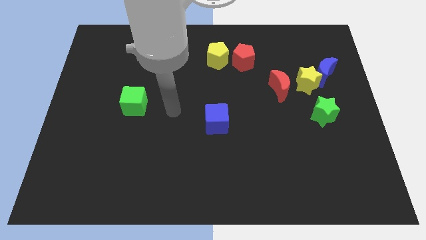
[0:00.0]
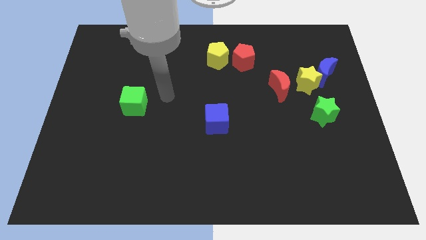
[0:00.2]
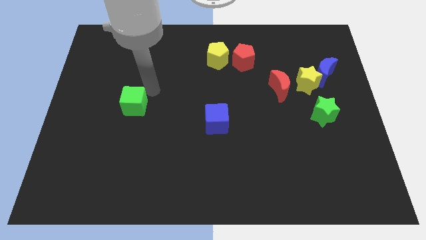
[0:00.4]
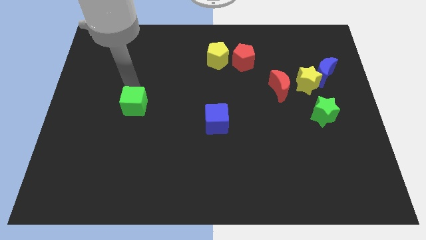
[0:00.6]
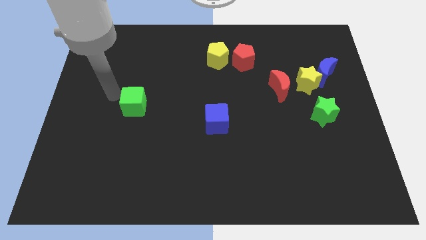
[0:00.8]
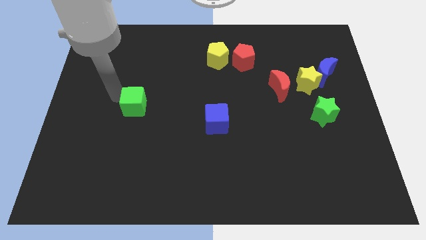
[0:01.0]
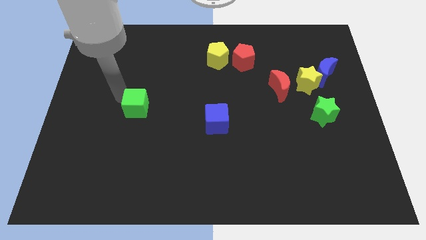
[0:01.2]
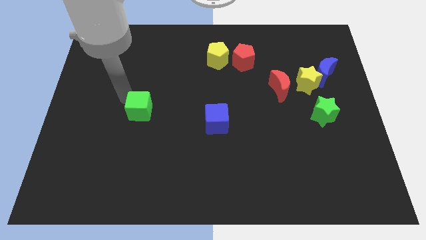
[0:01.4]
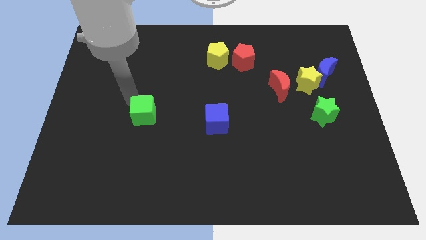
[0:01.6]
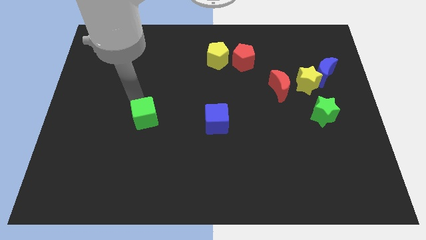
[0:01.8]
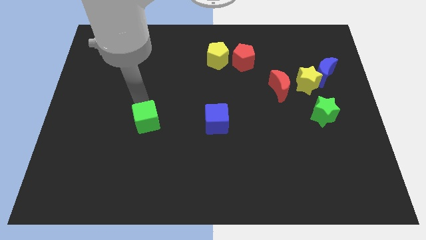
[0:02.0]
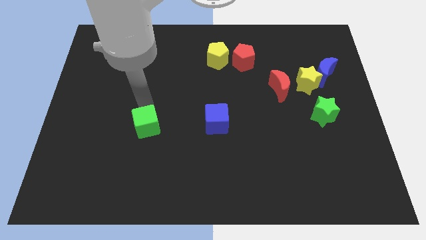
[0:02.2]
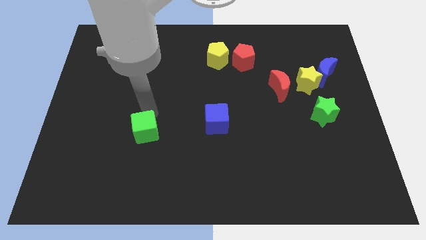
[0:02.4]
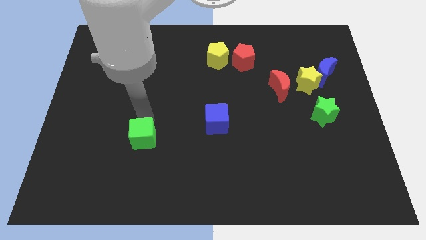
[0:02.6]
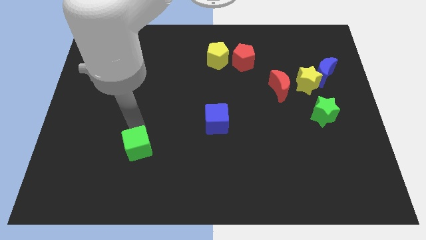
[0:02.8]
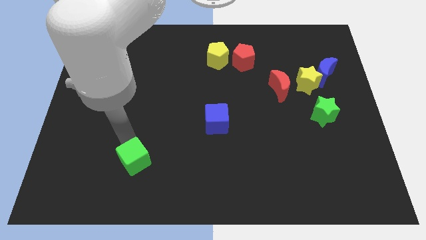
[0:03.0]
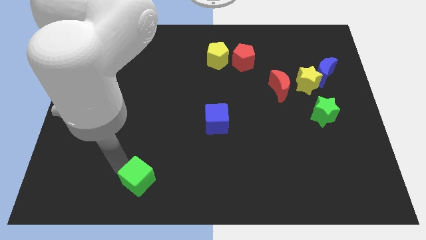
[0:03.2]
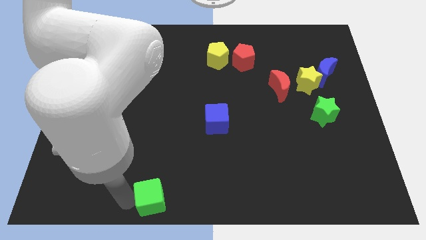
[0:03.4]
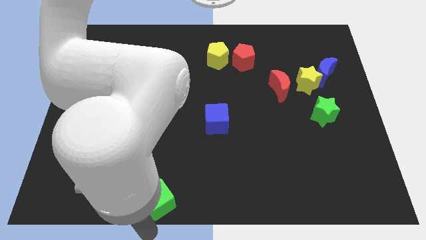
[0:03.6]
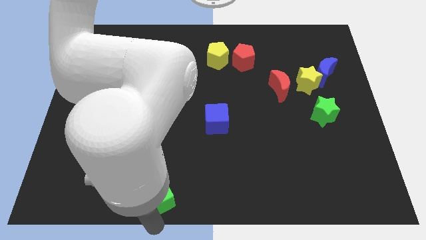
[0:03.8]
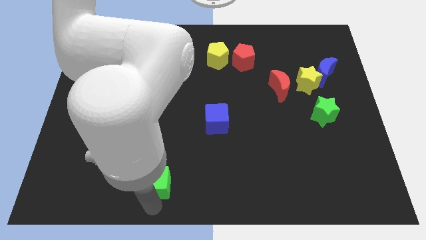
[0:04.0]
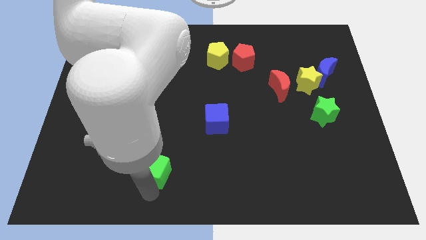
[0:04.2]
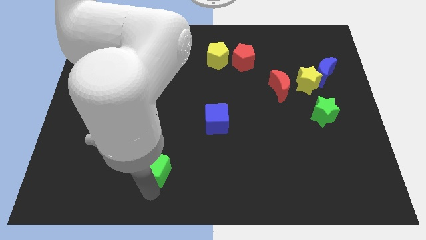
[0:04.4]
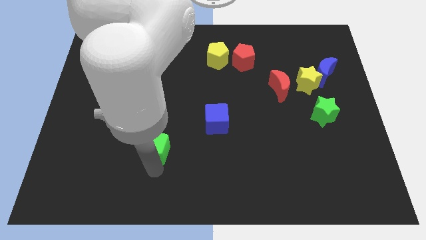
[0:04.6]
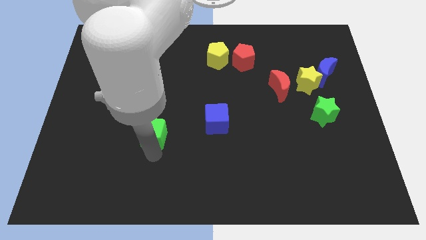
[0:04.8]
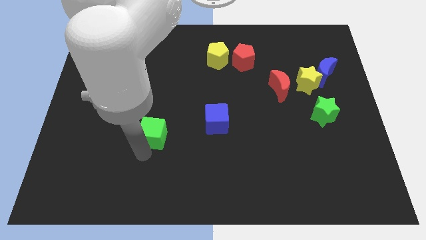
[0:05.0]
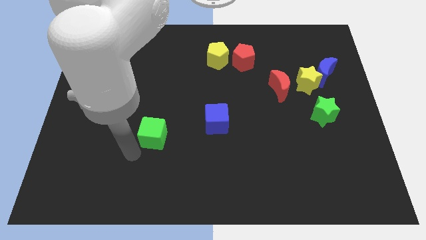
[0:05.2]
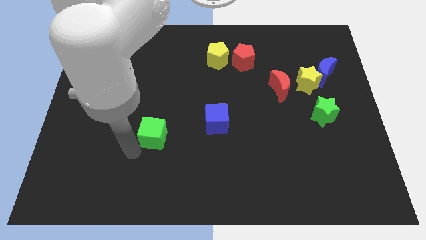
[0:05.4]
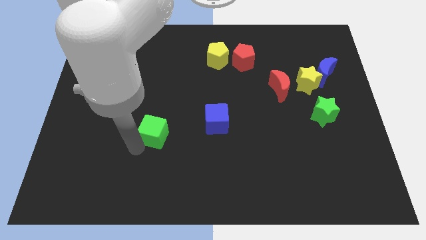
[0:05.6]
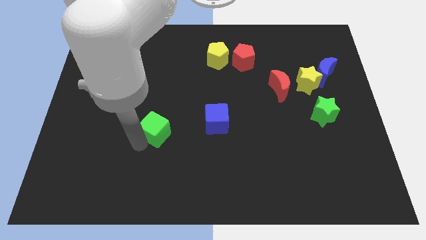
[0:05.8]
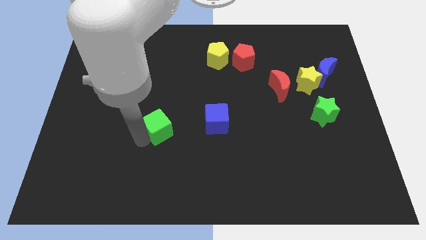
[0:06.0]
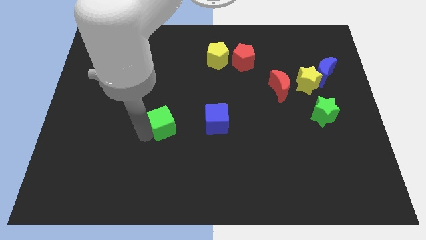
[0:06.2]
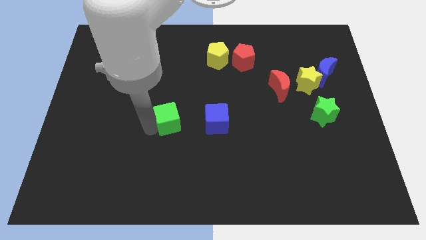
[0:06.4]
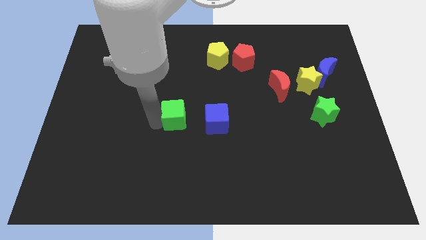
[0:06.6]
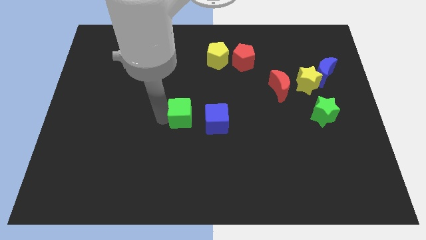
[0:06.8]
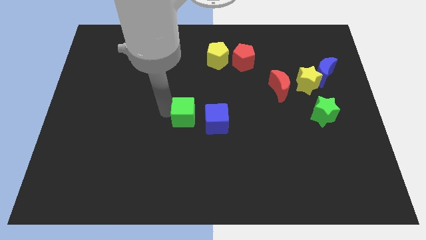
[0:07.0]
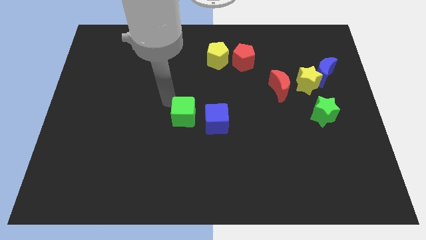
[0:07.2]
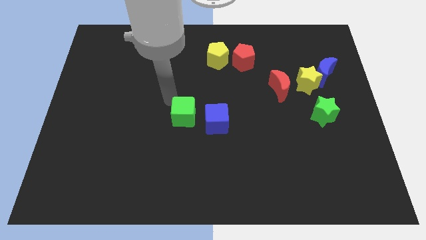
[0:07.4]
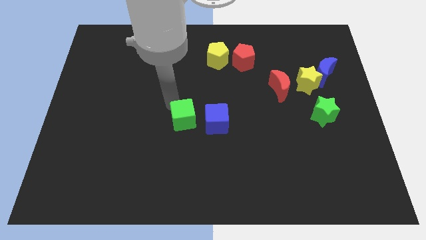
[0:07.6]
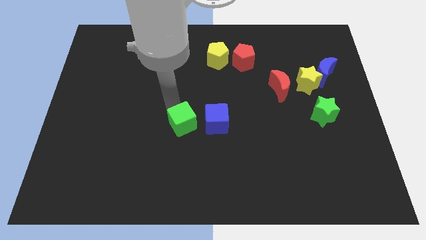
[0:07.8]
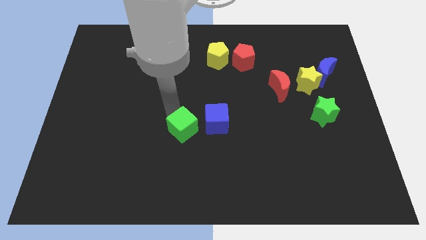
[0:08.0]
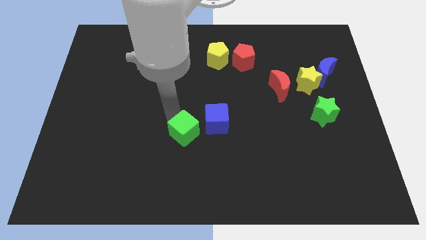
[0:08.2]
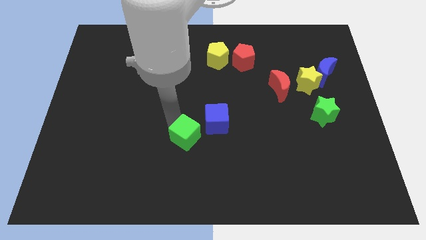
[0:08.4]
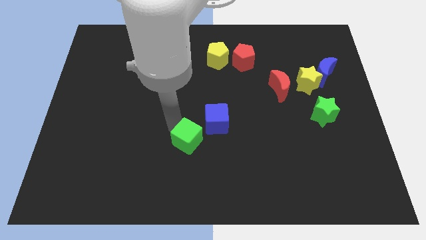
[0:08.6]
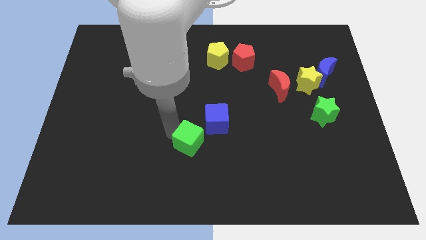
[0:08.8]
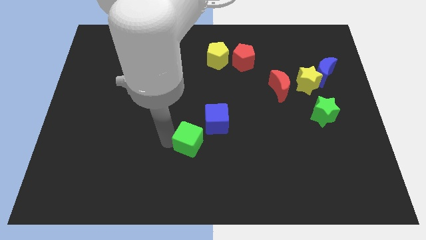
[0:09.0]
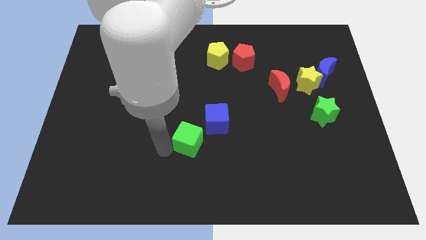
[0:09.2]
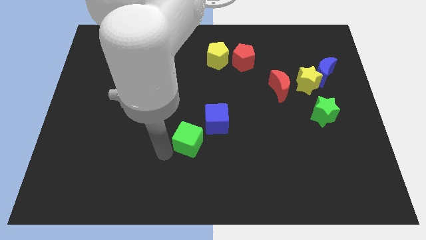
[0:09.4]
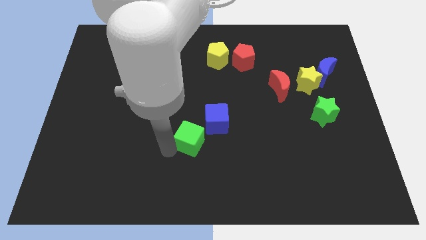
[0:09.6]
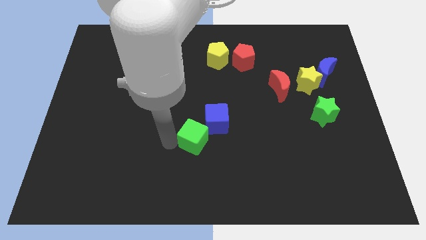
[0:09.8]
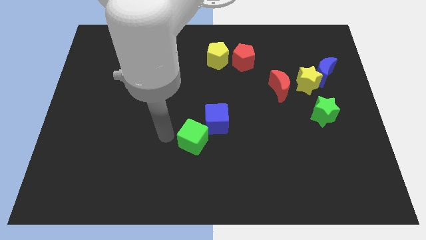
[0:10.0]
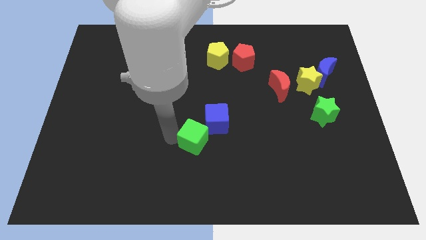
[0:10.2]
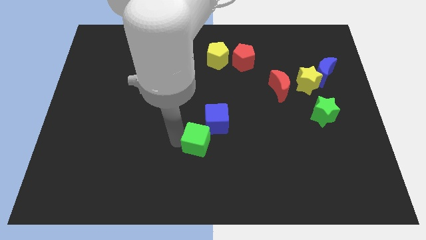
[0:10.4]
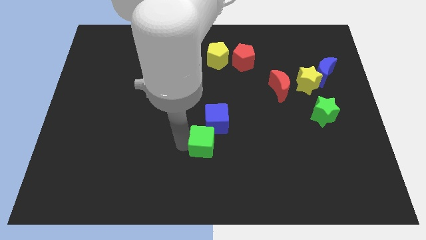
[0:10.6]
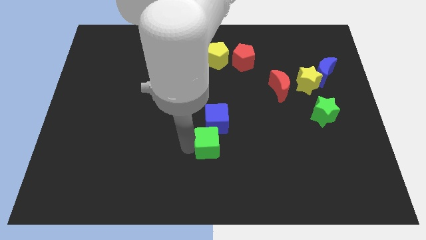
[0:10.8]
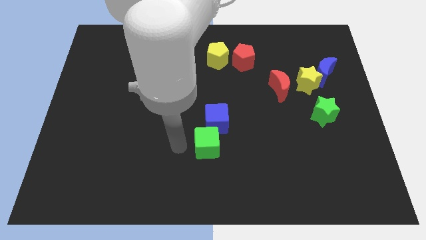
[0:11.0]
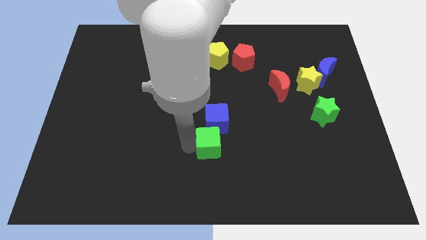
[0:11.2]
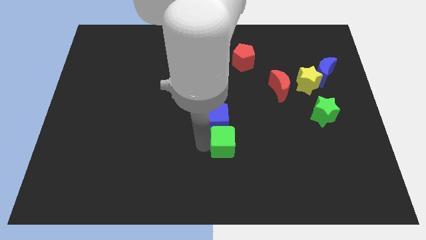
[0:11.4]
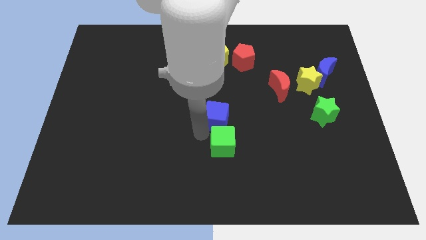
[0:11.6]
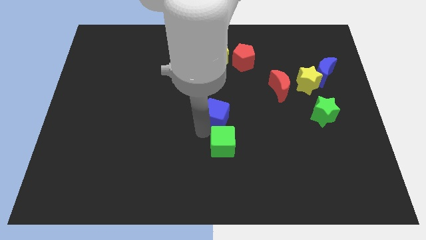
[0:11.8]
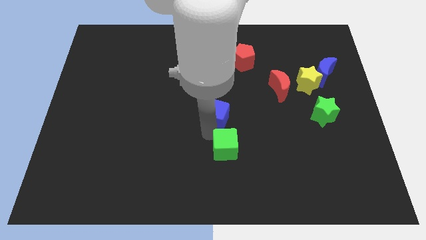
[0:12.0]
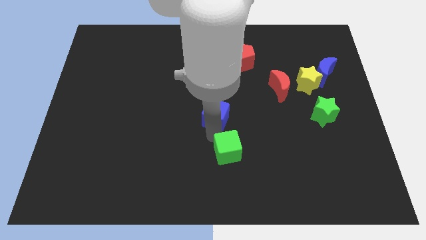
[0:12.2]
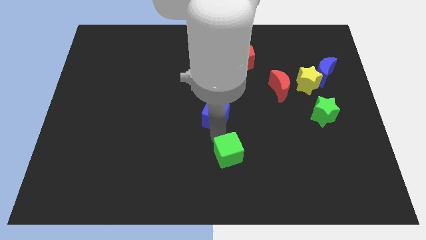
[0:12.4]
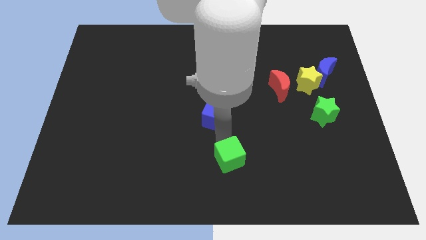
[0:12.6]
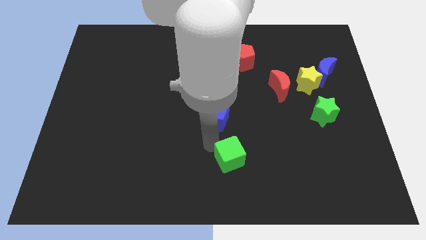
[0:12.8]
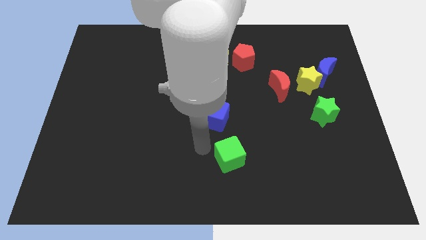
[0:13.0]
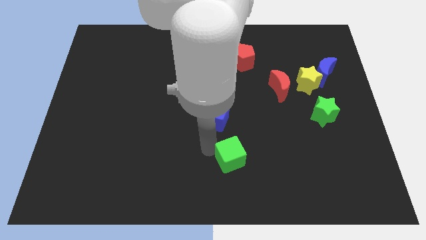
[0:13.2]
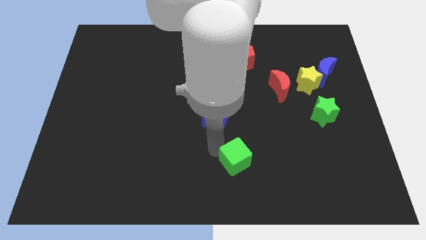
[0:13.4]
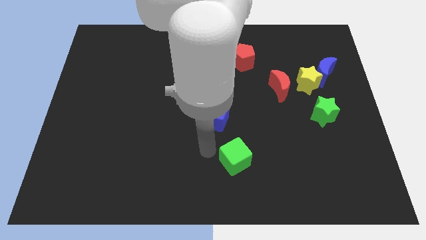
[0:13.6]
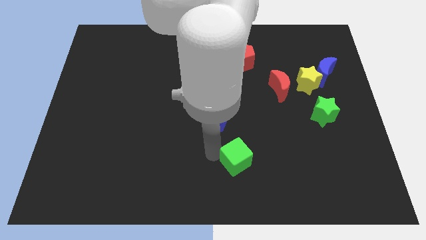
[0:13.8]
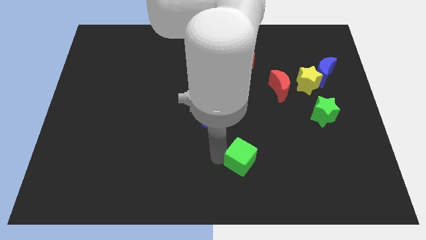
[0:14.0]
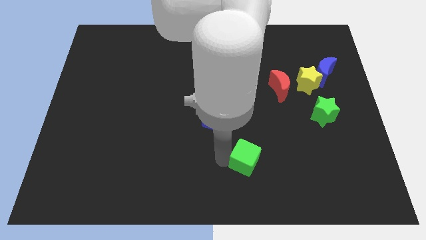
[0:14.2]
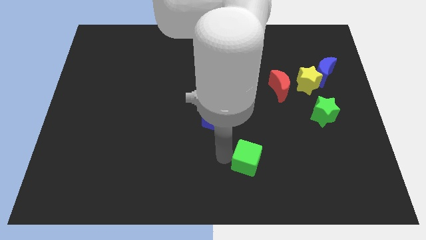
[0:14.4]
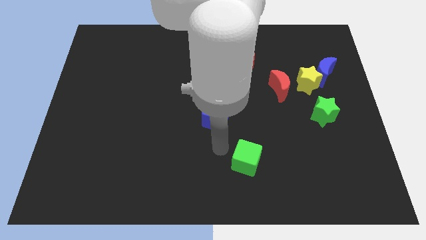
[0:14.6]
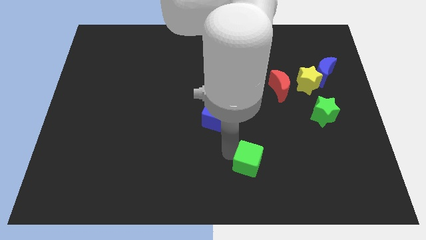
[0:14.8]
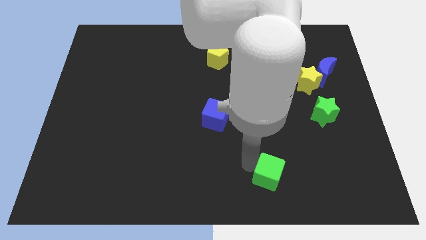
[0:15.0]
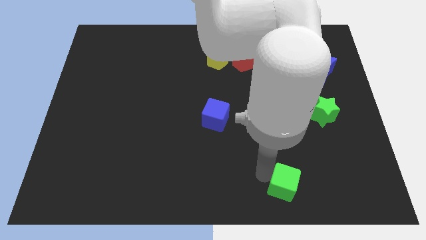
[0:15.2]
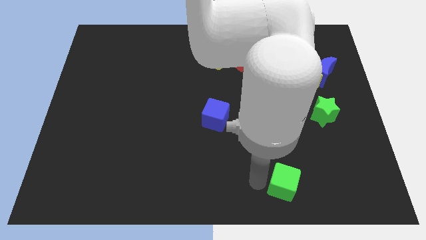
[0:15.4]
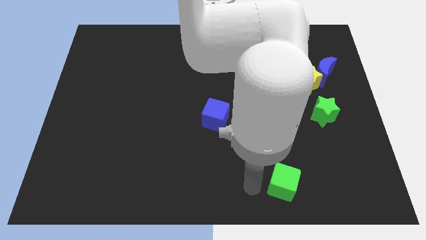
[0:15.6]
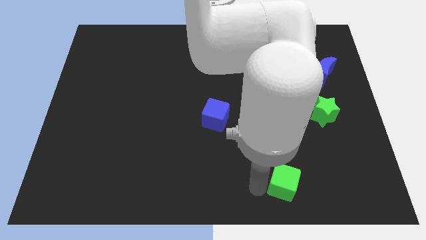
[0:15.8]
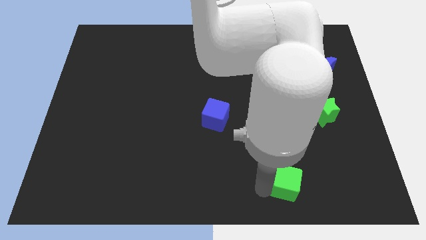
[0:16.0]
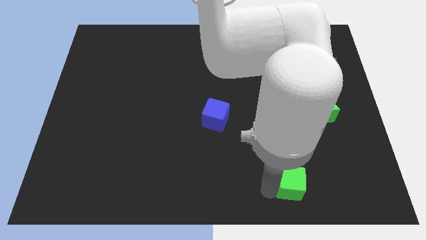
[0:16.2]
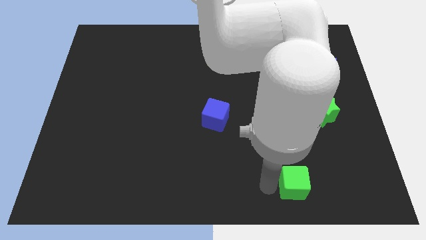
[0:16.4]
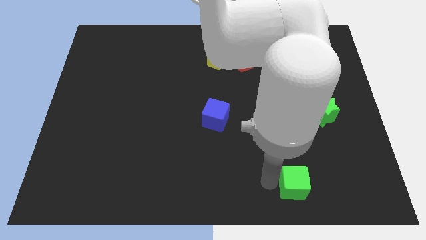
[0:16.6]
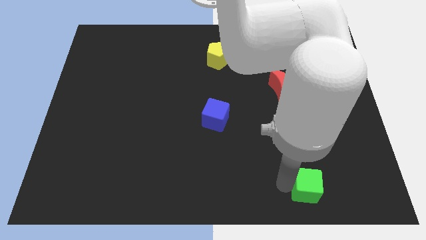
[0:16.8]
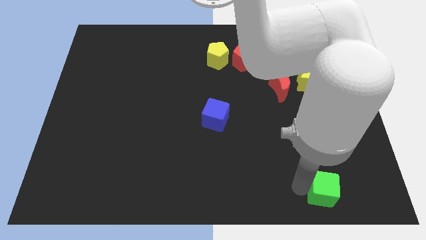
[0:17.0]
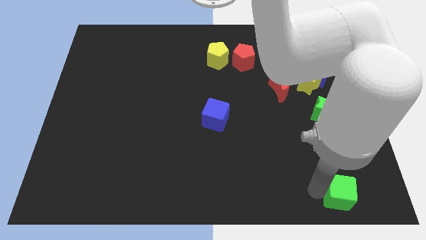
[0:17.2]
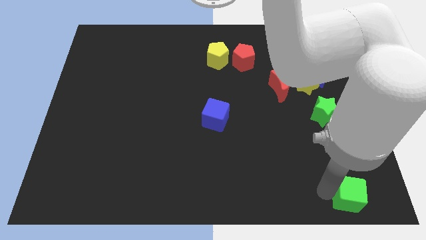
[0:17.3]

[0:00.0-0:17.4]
move the green cube to the bottom right corner
